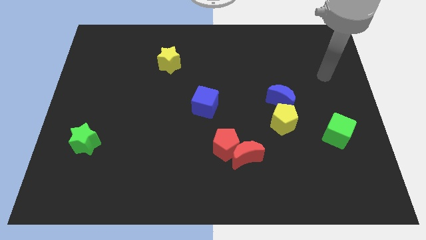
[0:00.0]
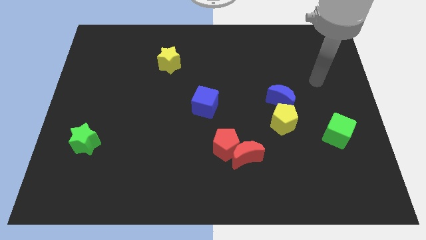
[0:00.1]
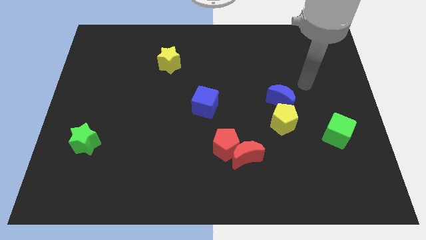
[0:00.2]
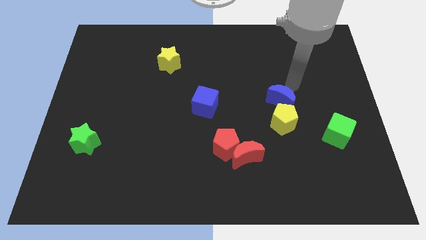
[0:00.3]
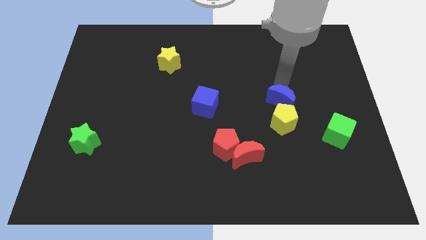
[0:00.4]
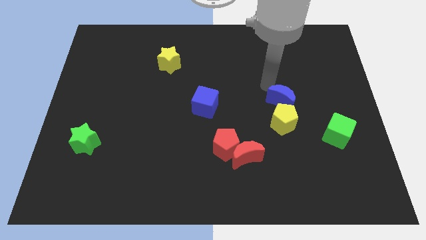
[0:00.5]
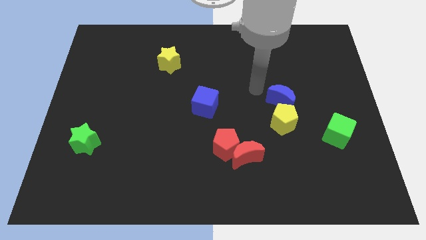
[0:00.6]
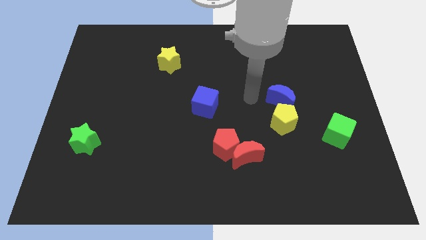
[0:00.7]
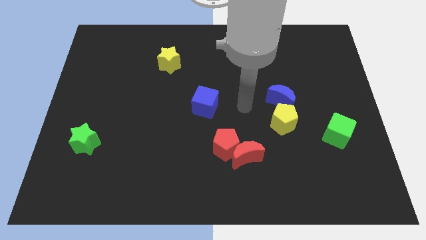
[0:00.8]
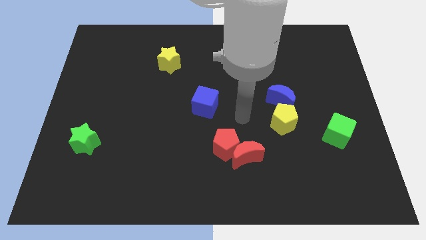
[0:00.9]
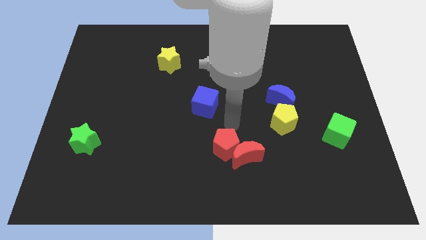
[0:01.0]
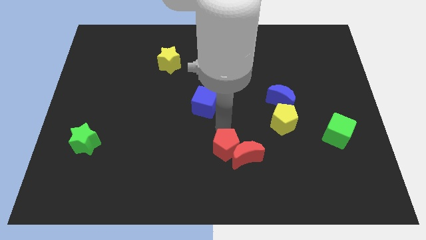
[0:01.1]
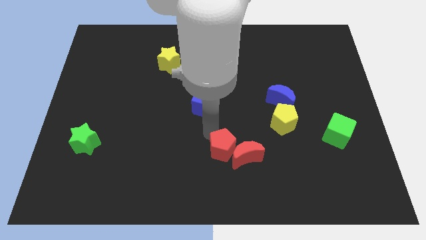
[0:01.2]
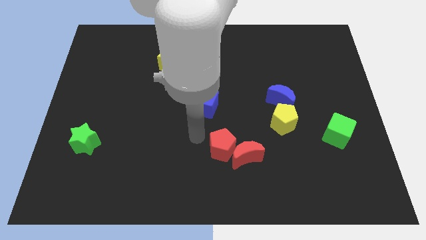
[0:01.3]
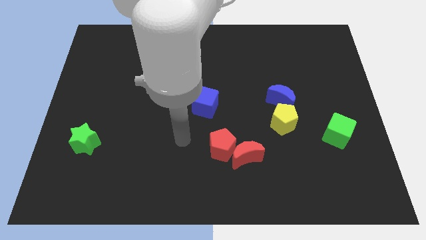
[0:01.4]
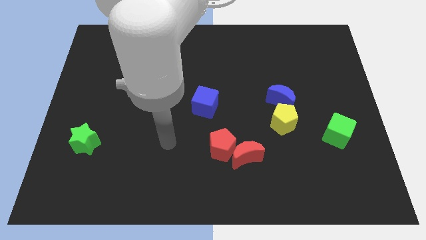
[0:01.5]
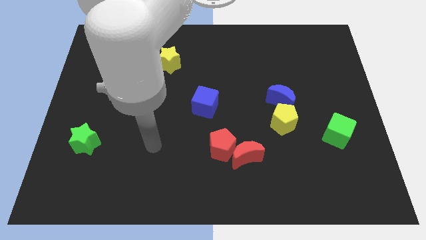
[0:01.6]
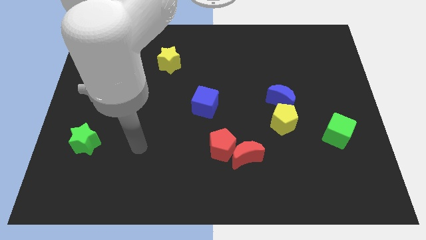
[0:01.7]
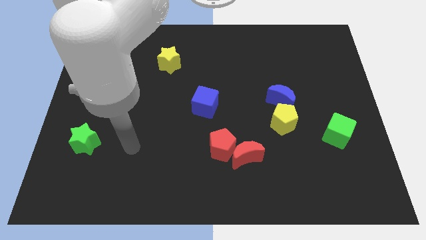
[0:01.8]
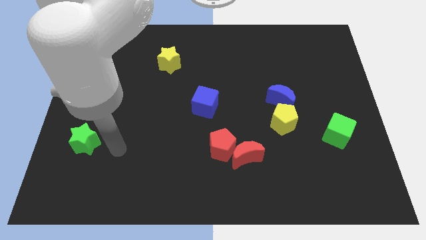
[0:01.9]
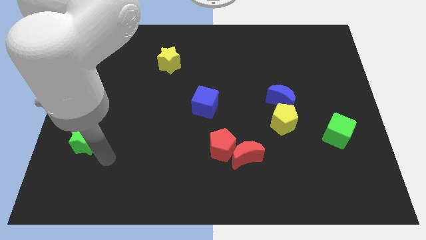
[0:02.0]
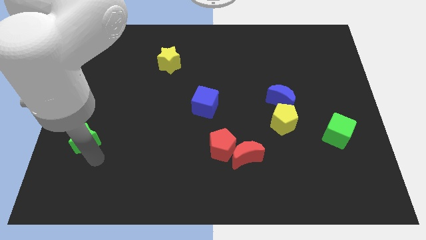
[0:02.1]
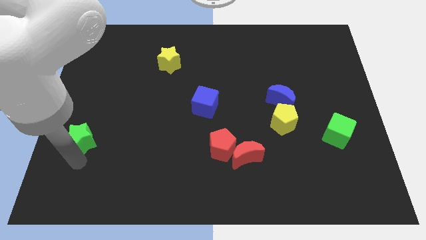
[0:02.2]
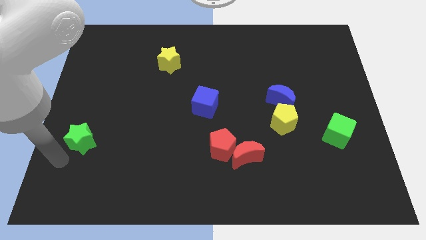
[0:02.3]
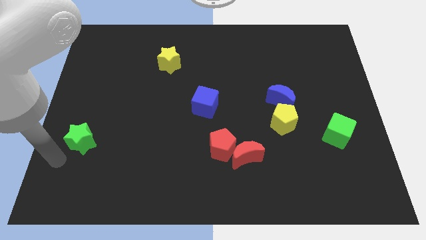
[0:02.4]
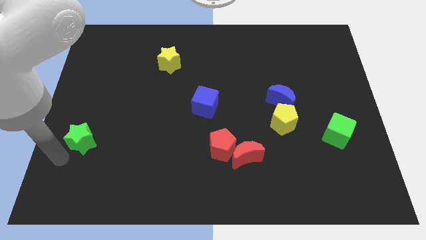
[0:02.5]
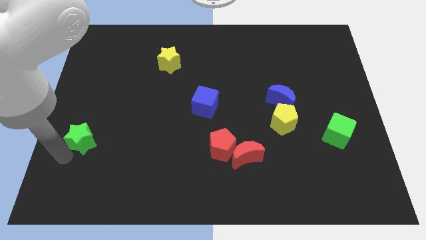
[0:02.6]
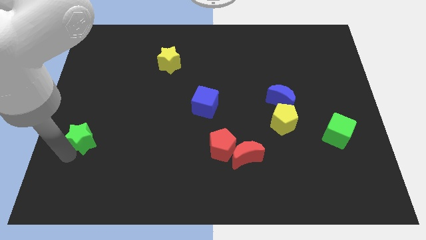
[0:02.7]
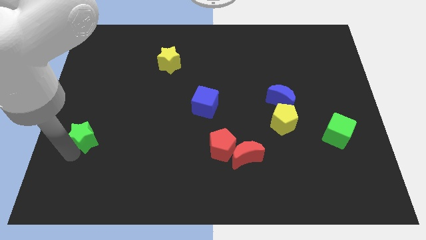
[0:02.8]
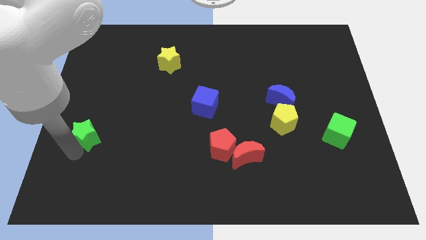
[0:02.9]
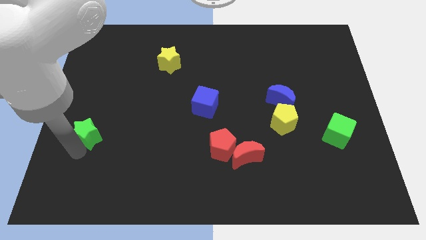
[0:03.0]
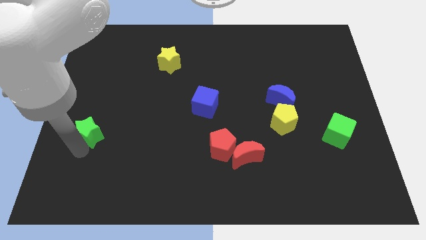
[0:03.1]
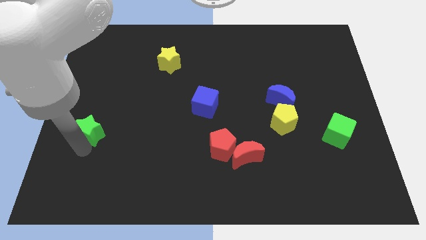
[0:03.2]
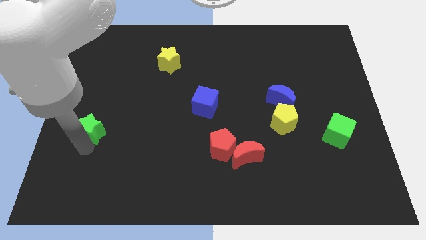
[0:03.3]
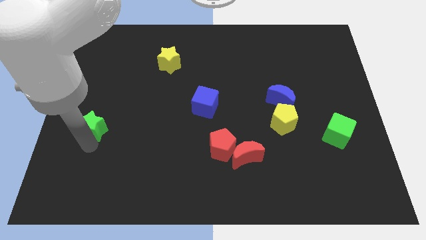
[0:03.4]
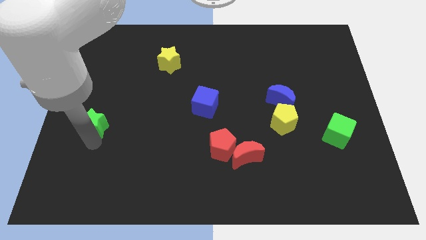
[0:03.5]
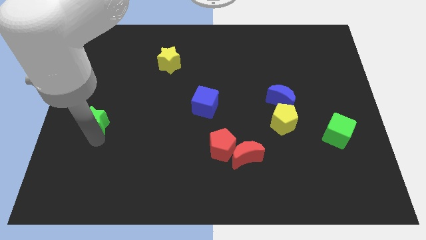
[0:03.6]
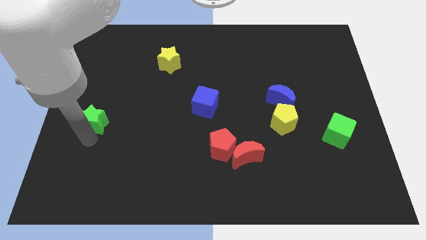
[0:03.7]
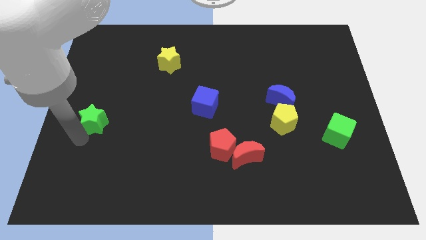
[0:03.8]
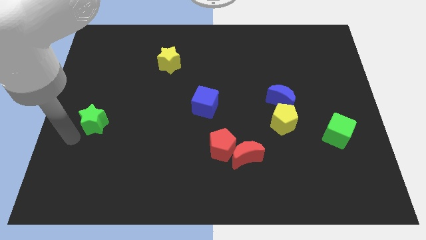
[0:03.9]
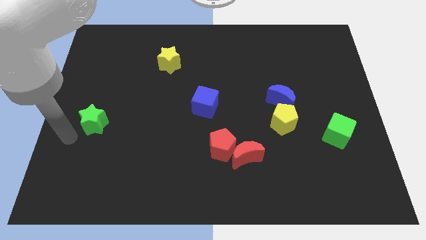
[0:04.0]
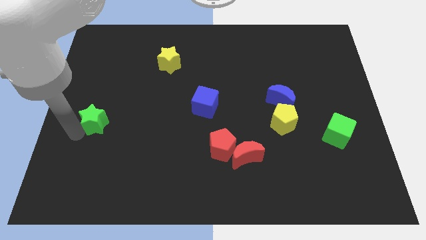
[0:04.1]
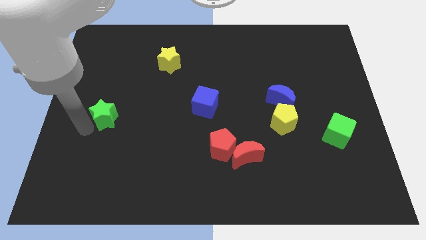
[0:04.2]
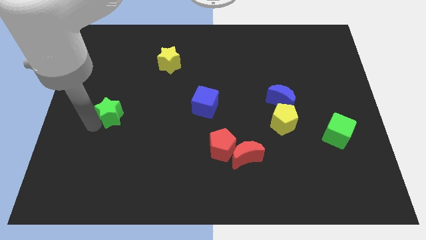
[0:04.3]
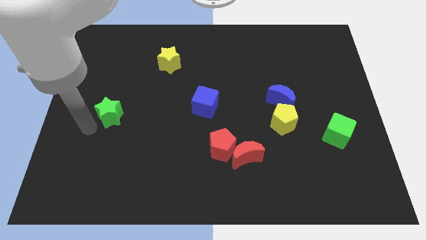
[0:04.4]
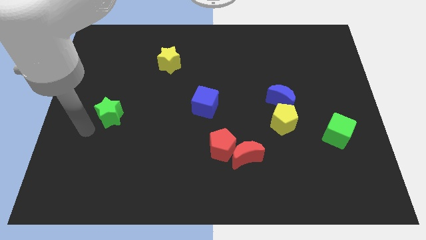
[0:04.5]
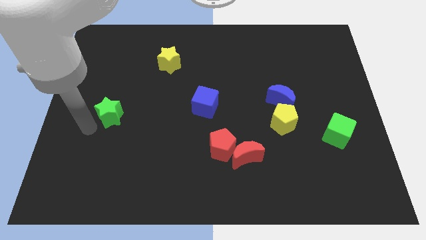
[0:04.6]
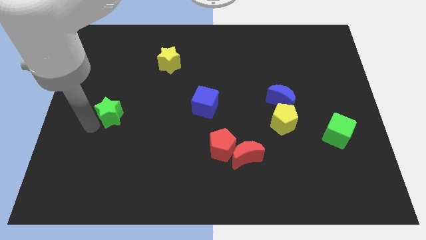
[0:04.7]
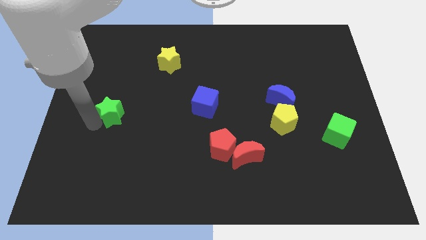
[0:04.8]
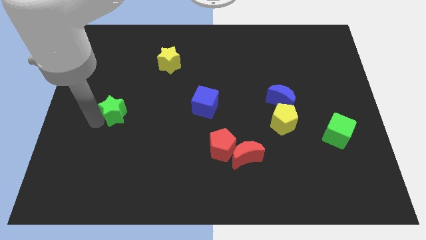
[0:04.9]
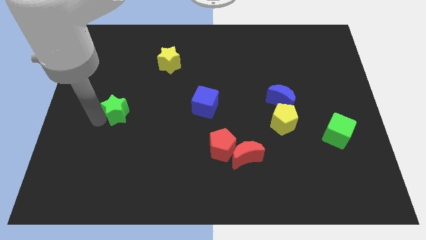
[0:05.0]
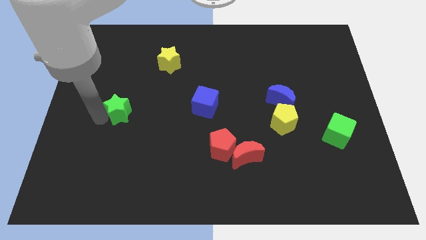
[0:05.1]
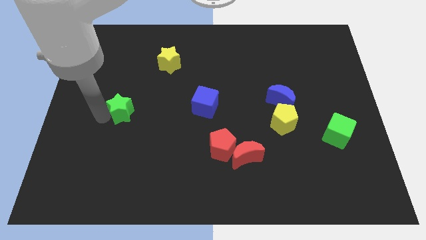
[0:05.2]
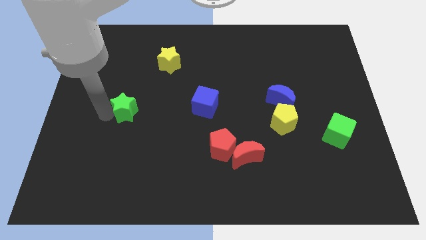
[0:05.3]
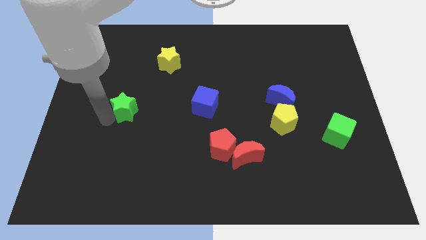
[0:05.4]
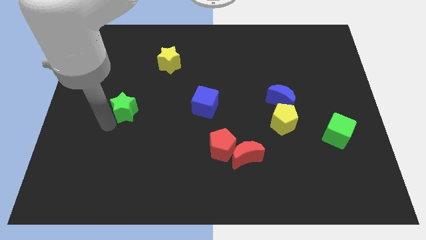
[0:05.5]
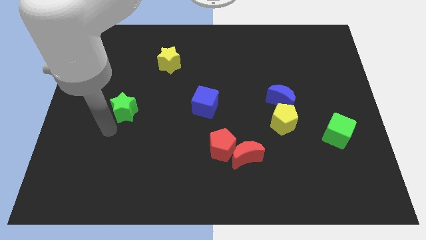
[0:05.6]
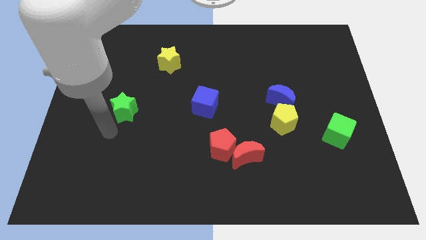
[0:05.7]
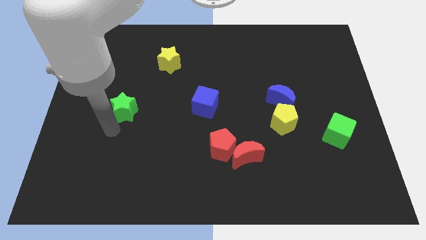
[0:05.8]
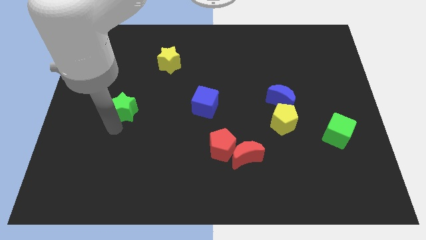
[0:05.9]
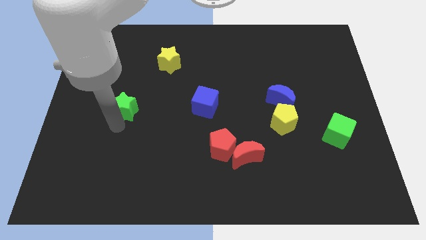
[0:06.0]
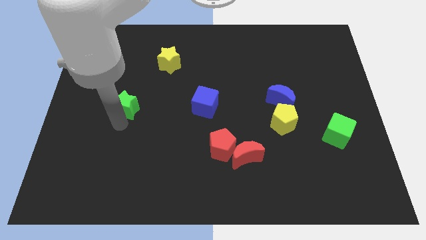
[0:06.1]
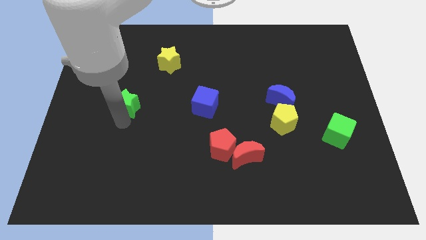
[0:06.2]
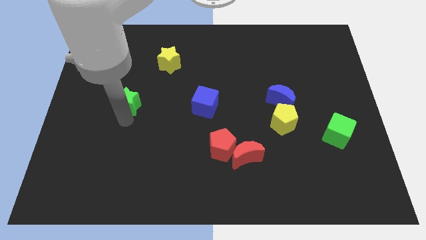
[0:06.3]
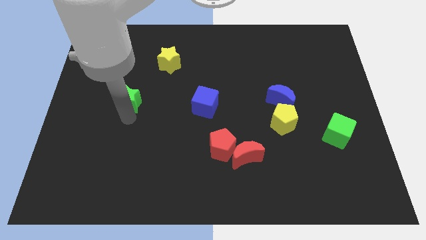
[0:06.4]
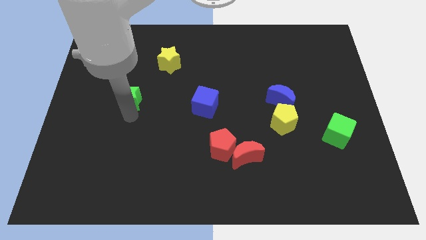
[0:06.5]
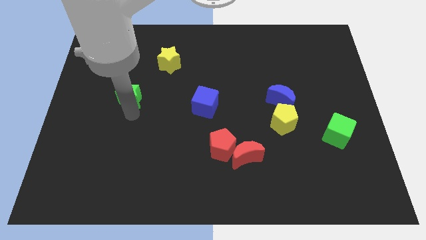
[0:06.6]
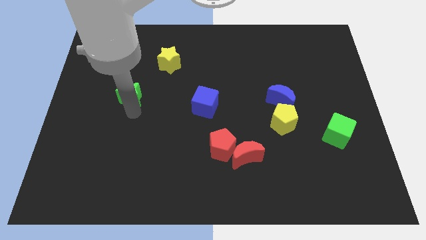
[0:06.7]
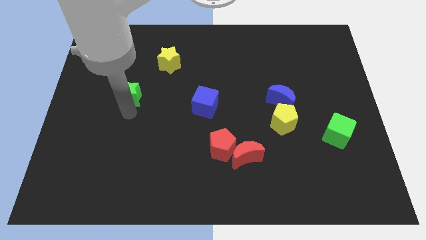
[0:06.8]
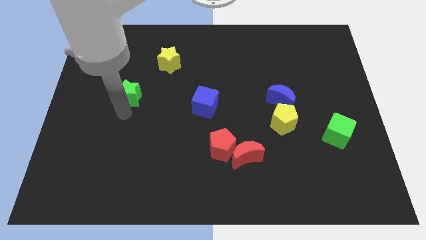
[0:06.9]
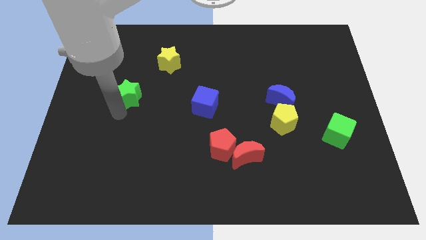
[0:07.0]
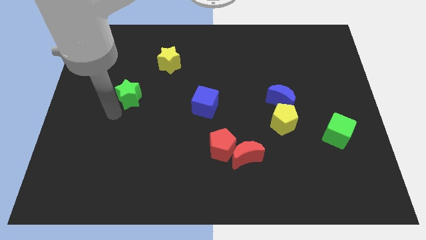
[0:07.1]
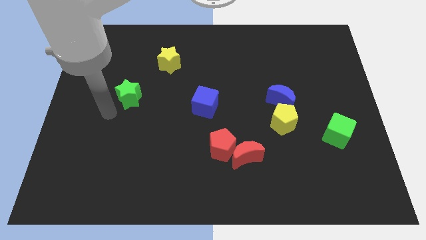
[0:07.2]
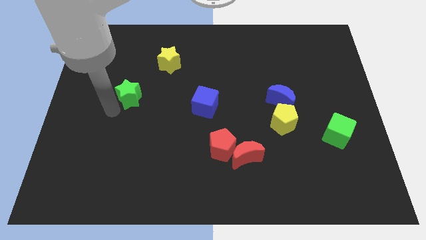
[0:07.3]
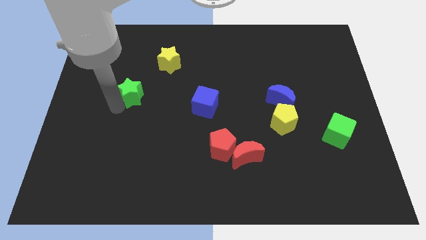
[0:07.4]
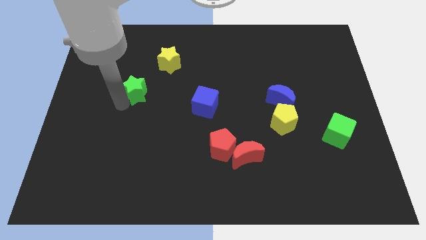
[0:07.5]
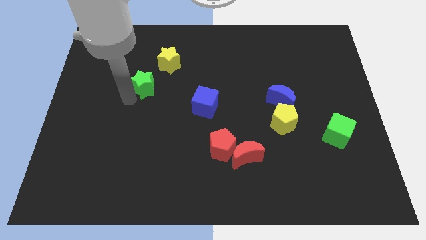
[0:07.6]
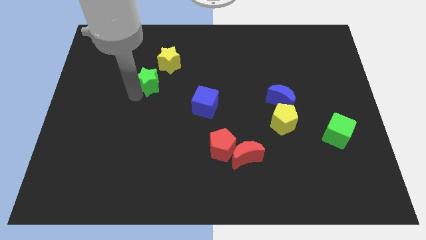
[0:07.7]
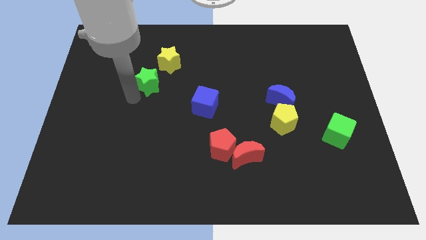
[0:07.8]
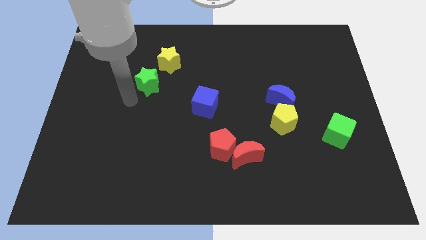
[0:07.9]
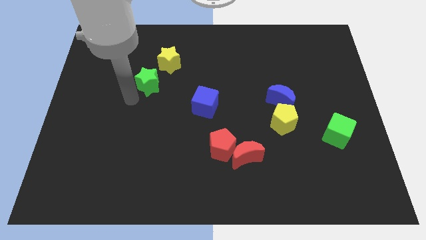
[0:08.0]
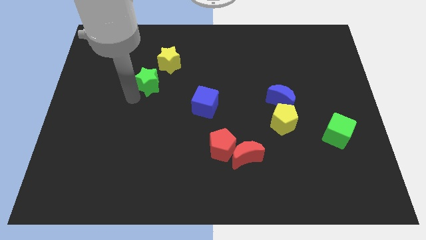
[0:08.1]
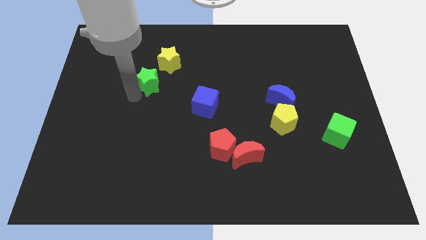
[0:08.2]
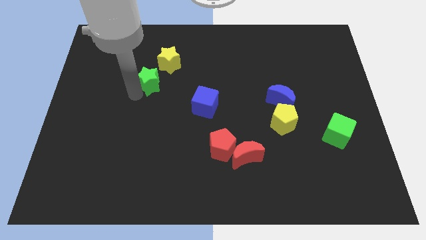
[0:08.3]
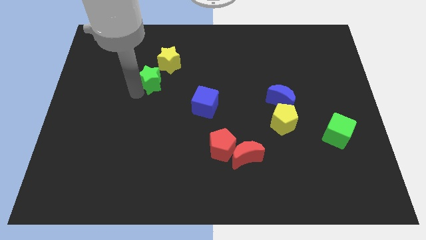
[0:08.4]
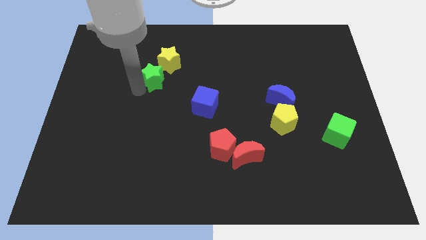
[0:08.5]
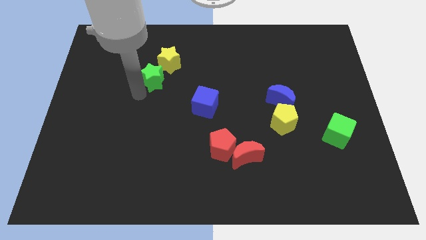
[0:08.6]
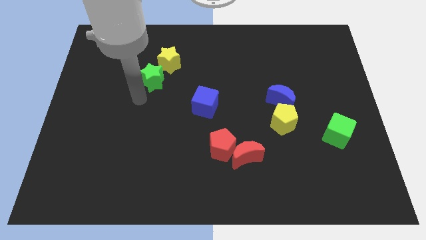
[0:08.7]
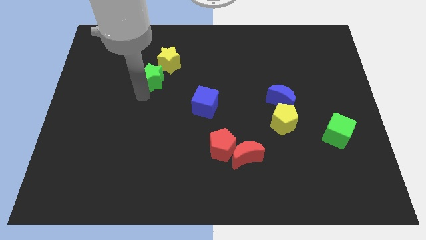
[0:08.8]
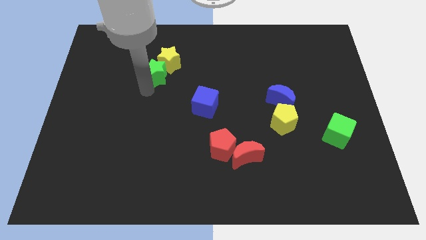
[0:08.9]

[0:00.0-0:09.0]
push the green star close to the yellow star
